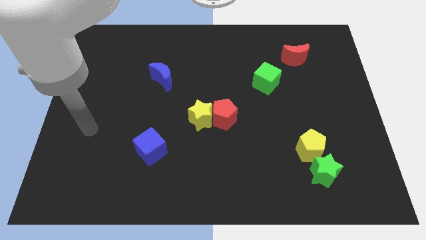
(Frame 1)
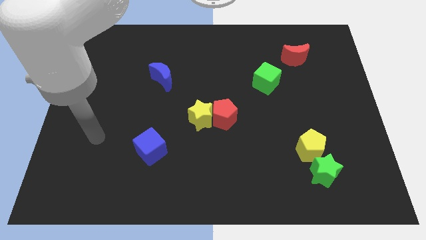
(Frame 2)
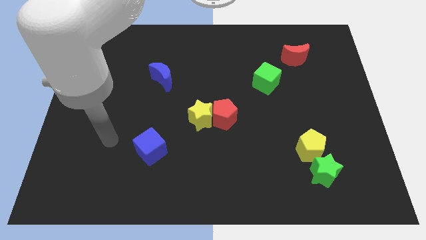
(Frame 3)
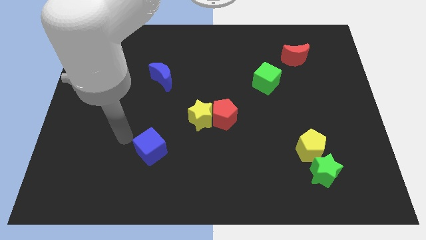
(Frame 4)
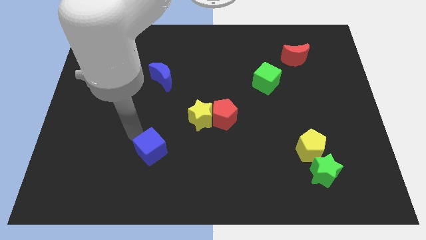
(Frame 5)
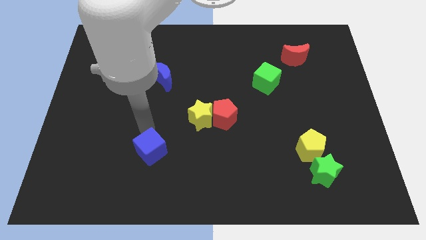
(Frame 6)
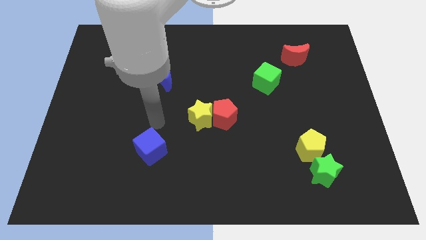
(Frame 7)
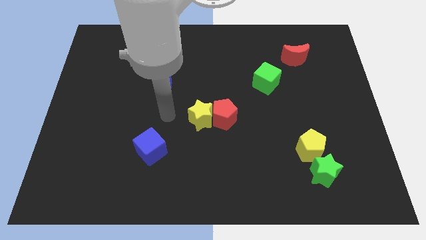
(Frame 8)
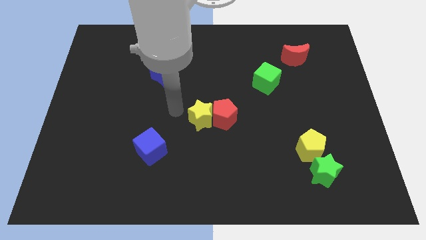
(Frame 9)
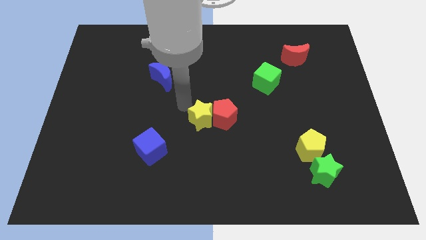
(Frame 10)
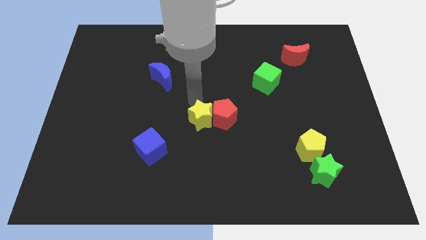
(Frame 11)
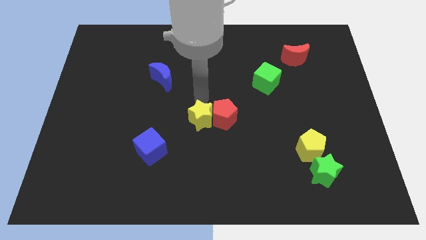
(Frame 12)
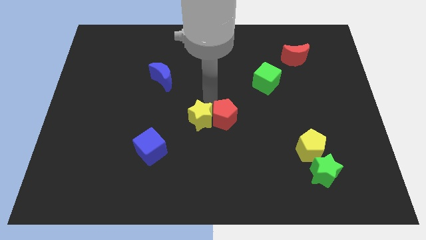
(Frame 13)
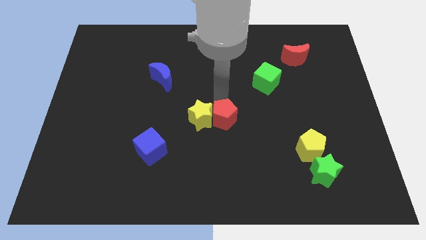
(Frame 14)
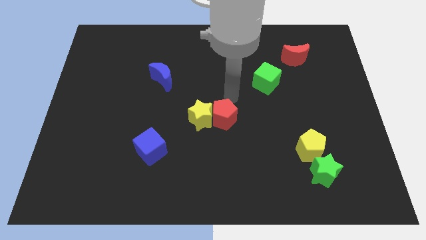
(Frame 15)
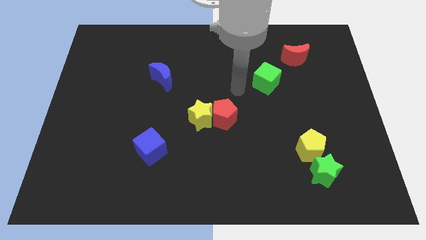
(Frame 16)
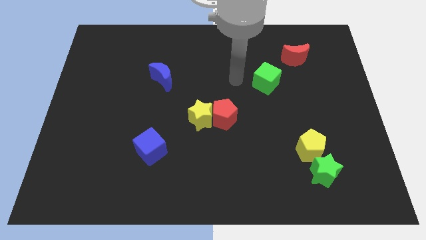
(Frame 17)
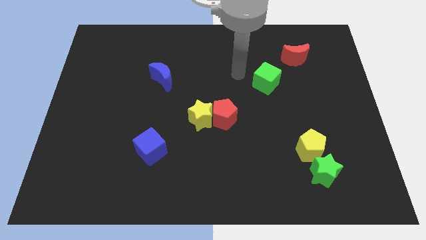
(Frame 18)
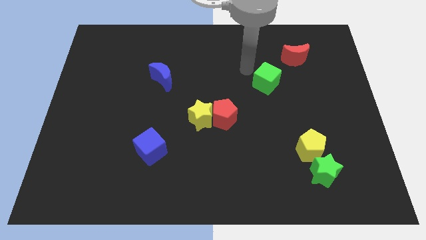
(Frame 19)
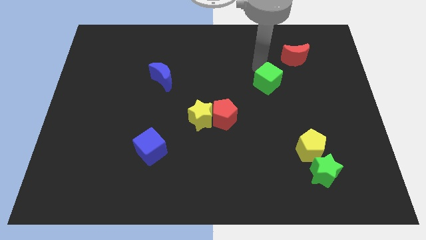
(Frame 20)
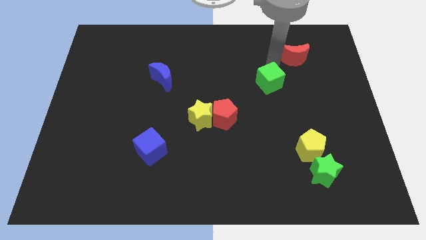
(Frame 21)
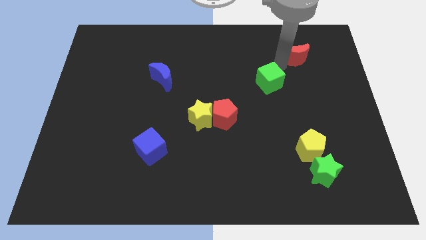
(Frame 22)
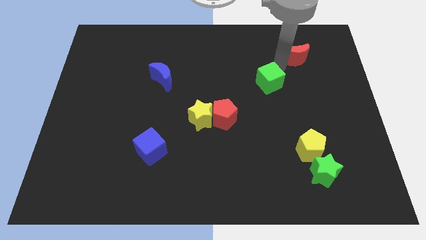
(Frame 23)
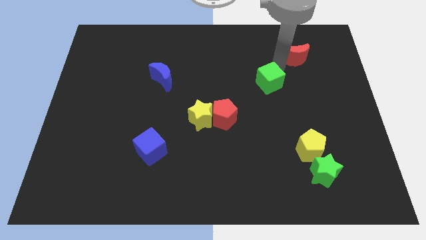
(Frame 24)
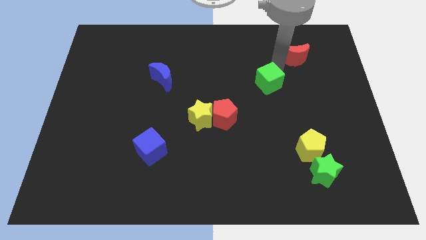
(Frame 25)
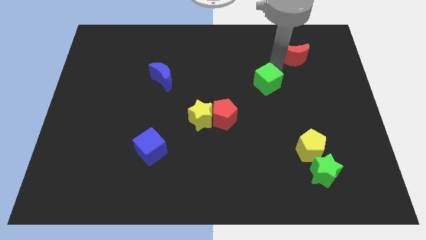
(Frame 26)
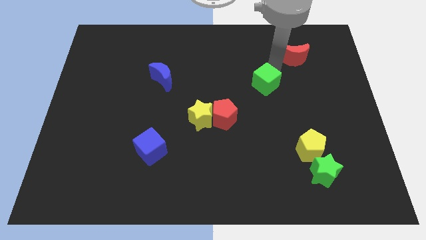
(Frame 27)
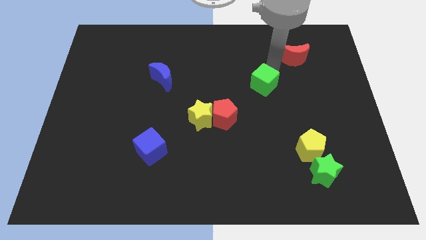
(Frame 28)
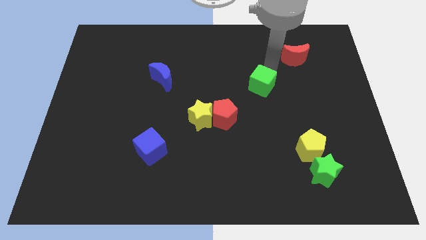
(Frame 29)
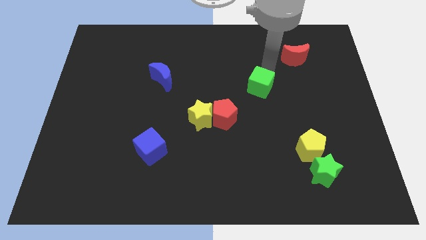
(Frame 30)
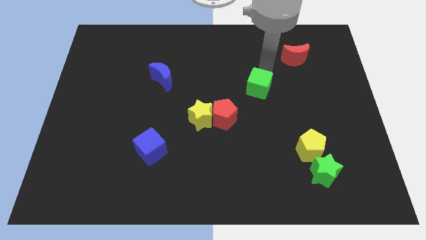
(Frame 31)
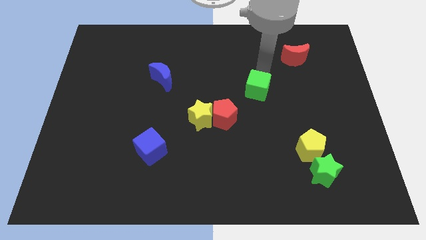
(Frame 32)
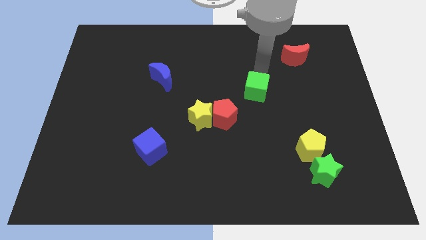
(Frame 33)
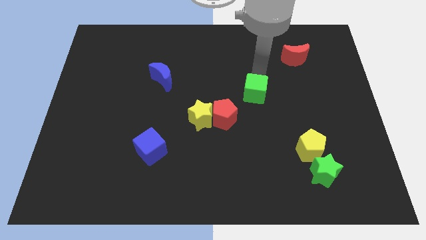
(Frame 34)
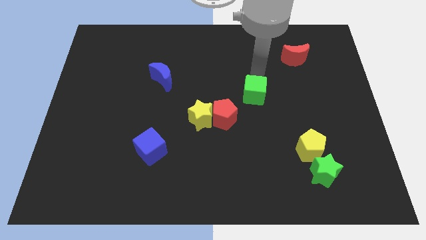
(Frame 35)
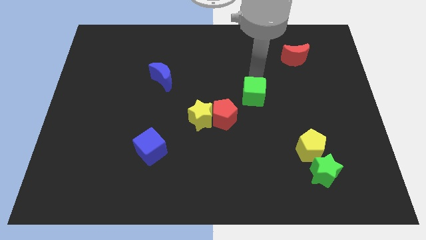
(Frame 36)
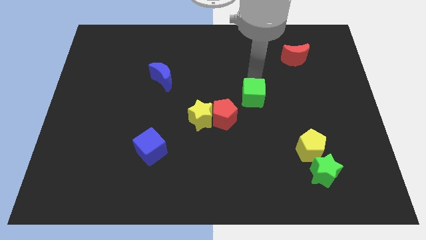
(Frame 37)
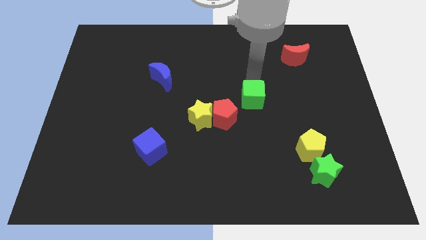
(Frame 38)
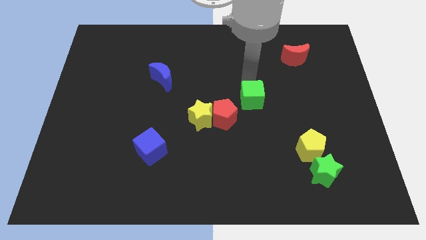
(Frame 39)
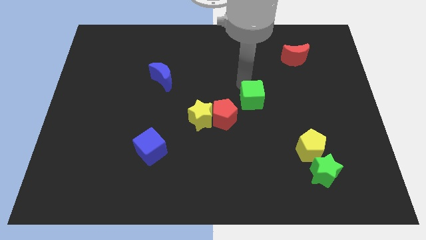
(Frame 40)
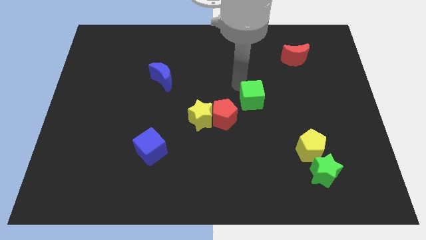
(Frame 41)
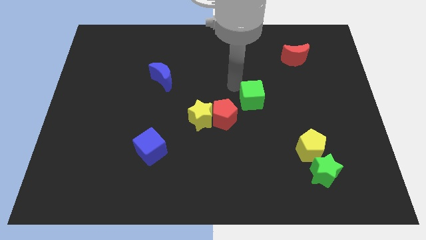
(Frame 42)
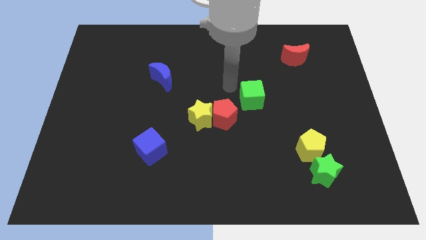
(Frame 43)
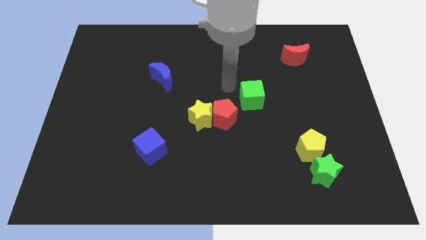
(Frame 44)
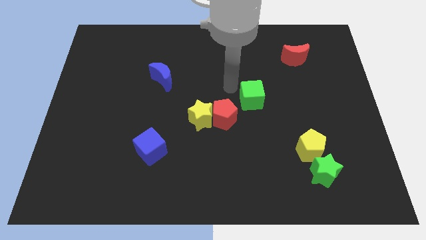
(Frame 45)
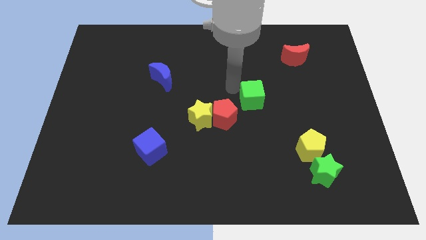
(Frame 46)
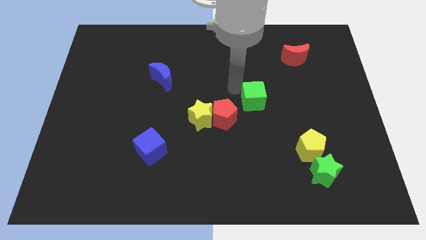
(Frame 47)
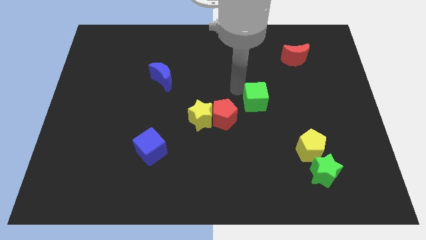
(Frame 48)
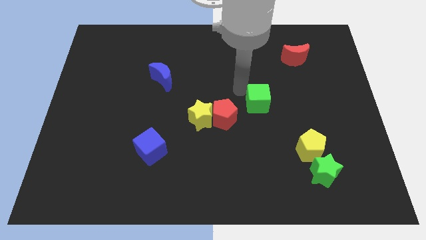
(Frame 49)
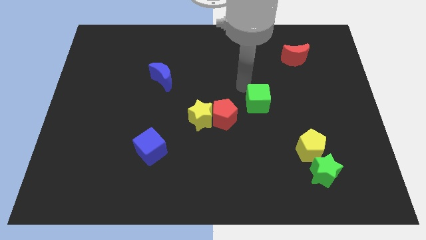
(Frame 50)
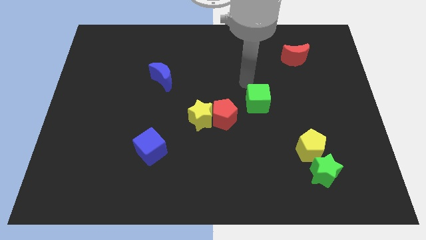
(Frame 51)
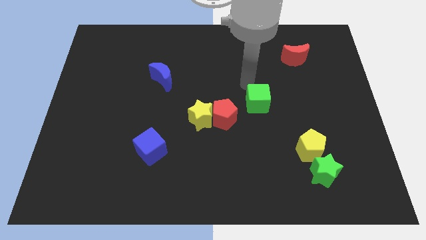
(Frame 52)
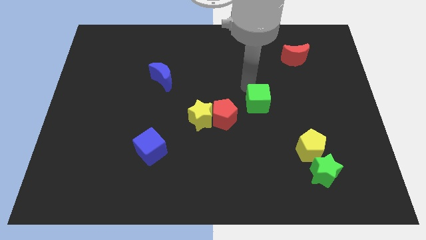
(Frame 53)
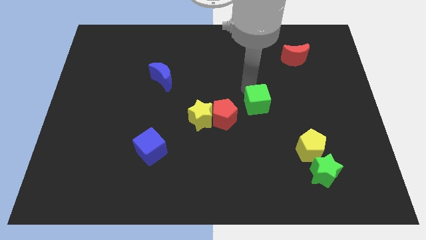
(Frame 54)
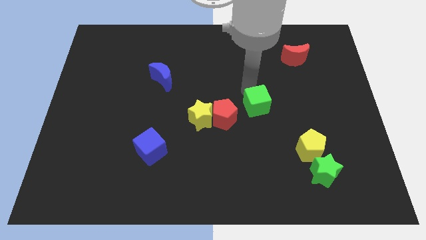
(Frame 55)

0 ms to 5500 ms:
slightly slide the green cube down

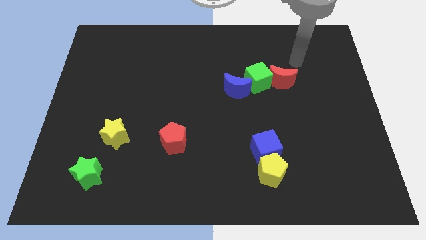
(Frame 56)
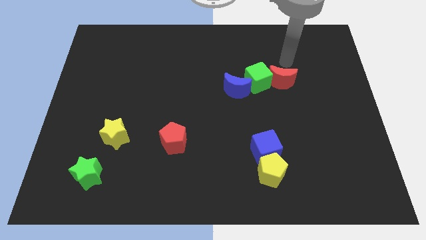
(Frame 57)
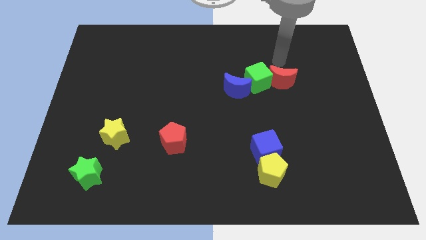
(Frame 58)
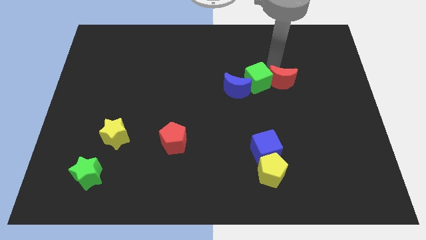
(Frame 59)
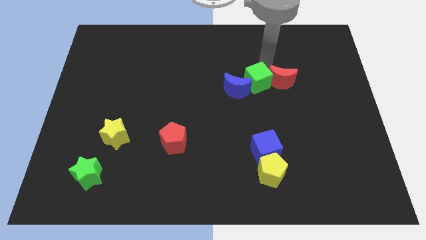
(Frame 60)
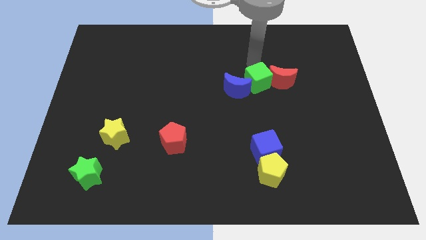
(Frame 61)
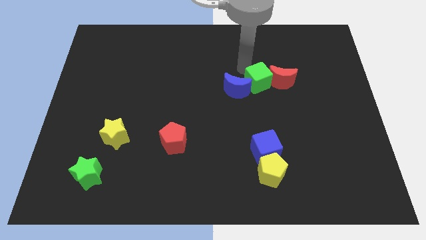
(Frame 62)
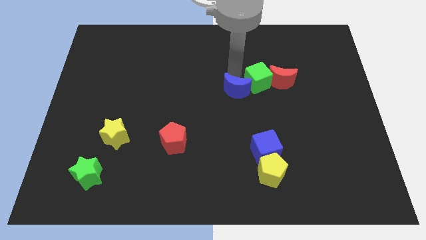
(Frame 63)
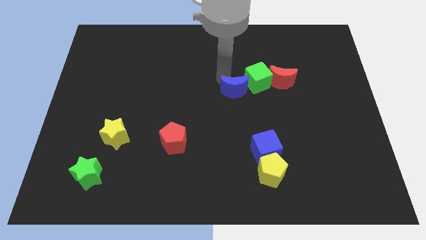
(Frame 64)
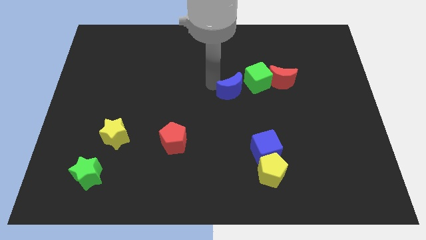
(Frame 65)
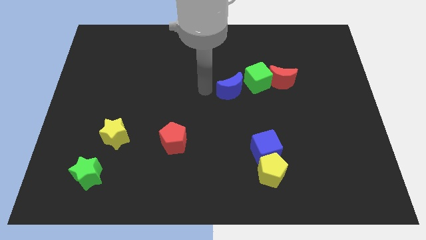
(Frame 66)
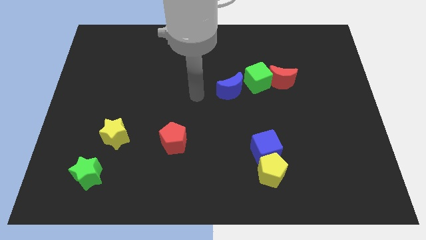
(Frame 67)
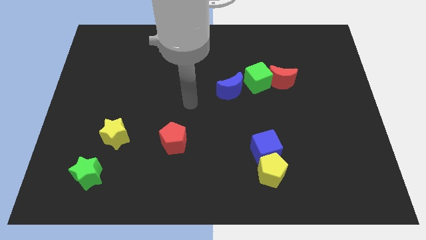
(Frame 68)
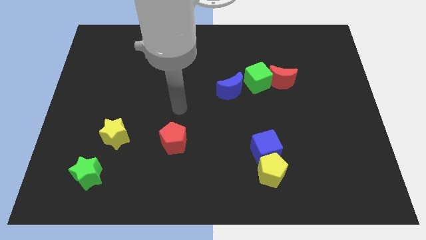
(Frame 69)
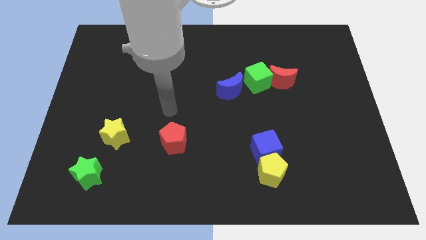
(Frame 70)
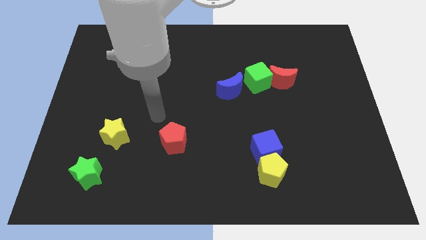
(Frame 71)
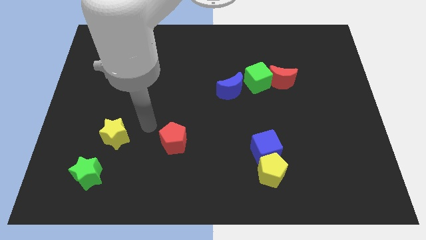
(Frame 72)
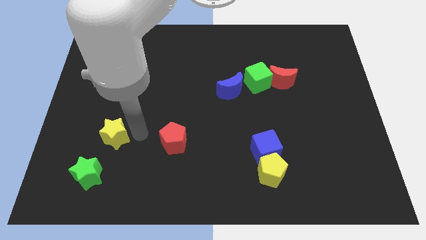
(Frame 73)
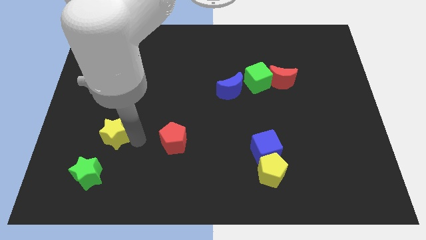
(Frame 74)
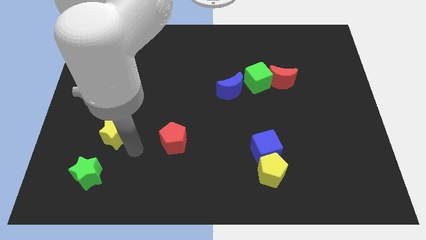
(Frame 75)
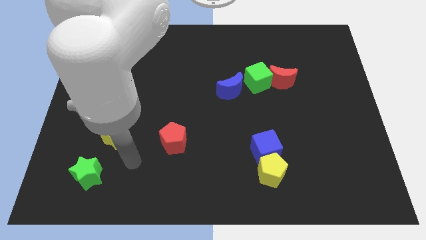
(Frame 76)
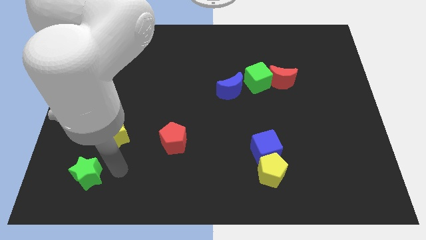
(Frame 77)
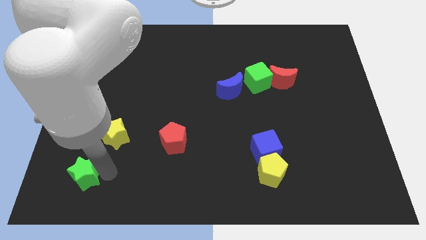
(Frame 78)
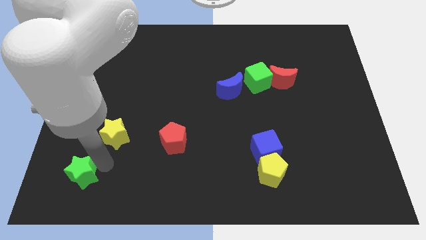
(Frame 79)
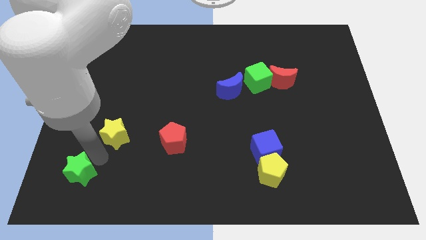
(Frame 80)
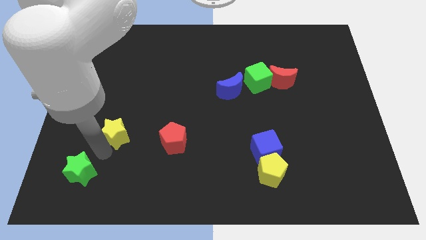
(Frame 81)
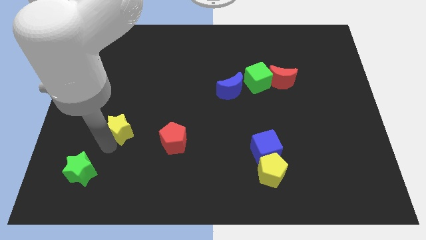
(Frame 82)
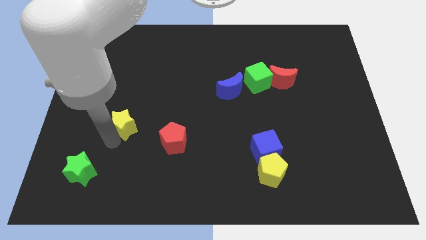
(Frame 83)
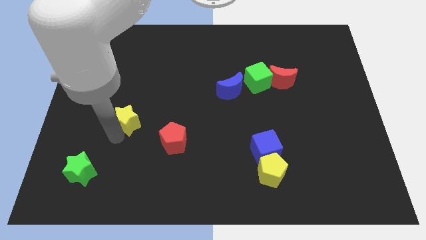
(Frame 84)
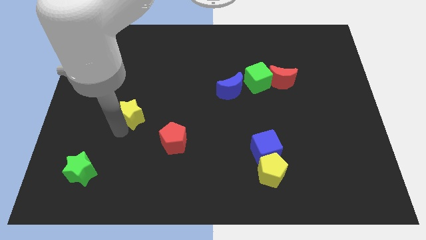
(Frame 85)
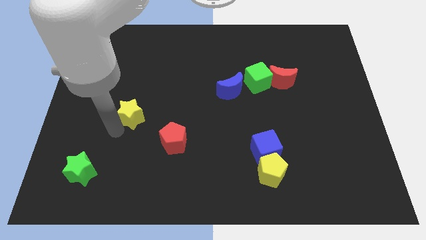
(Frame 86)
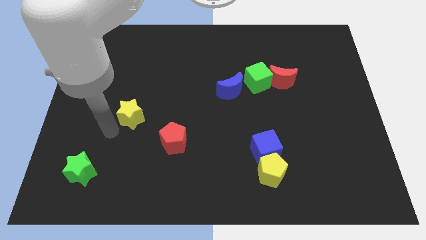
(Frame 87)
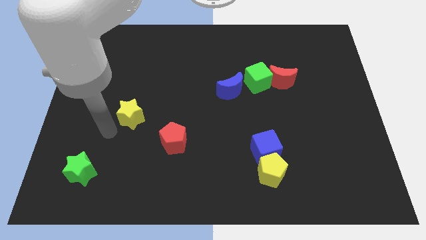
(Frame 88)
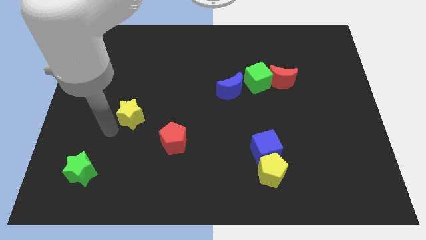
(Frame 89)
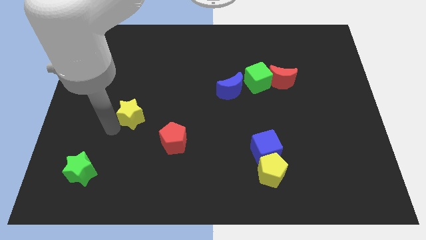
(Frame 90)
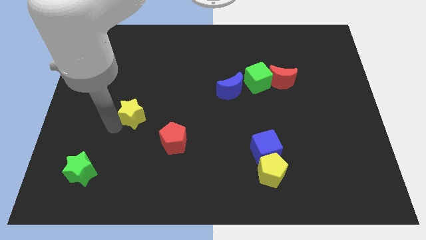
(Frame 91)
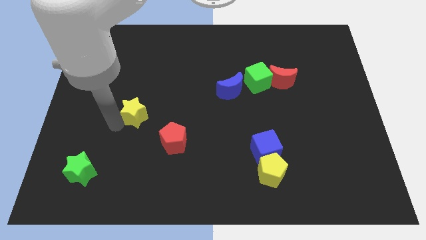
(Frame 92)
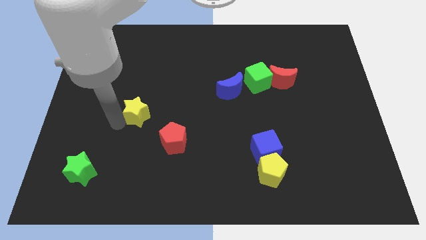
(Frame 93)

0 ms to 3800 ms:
slide the yellow star a little bit up and right diagonally
